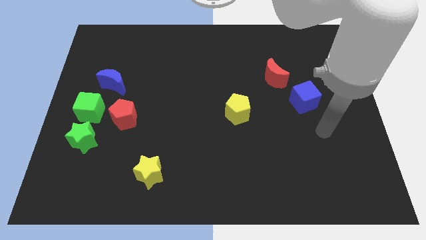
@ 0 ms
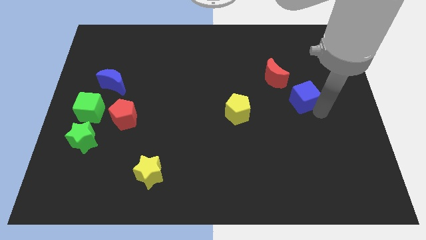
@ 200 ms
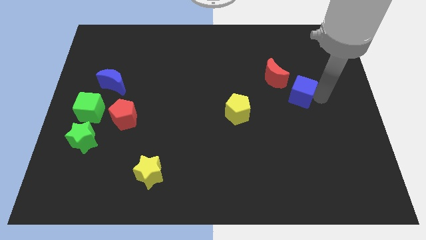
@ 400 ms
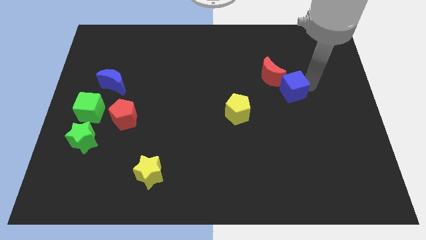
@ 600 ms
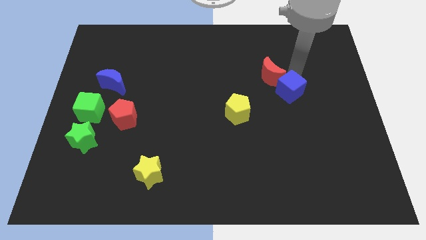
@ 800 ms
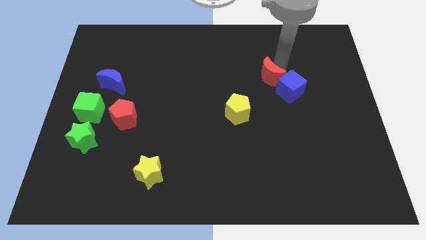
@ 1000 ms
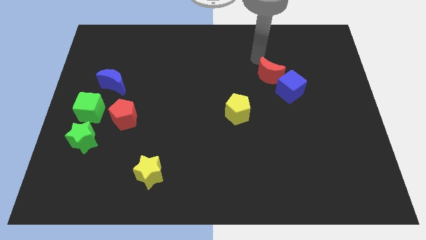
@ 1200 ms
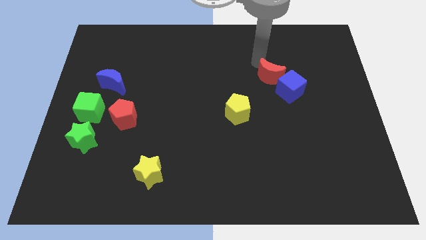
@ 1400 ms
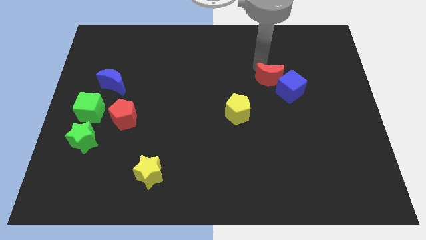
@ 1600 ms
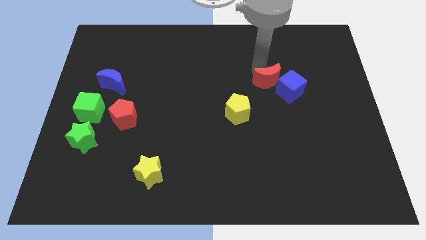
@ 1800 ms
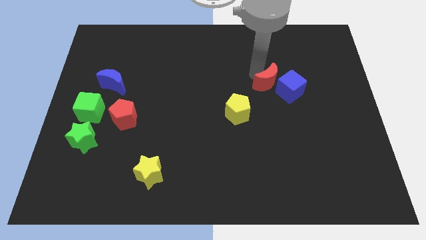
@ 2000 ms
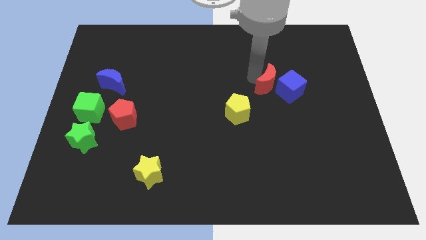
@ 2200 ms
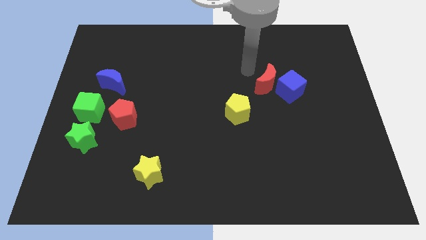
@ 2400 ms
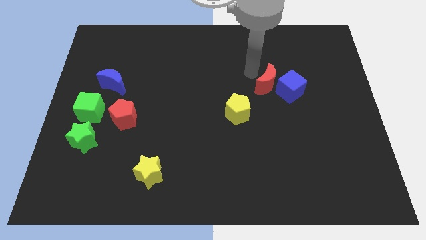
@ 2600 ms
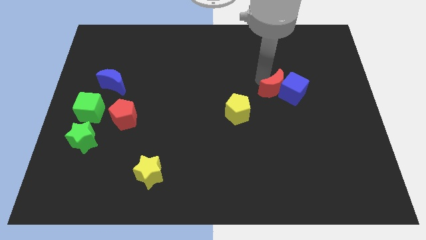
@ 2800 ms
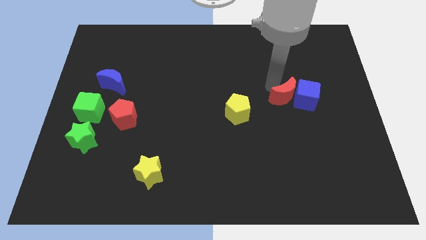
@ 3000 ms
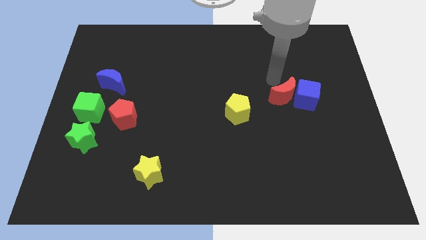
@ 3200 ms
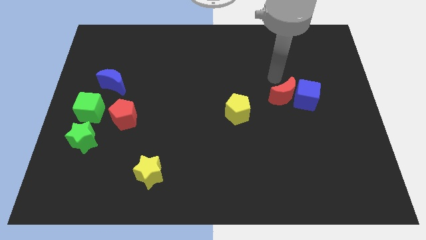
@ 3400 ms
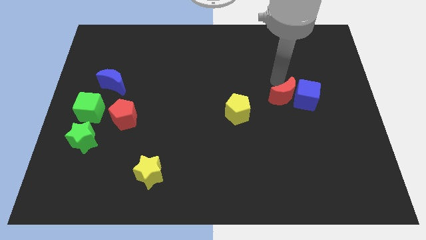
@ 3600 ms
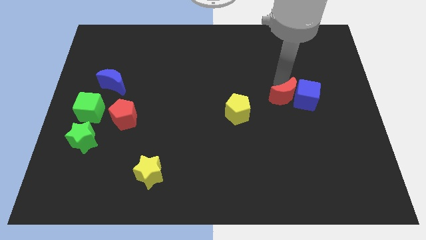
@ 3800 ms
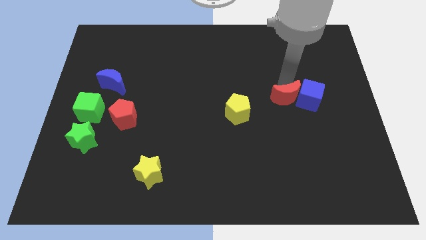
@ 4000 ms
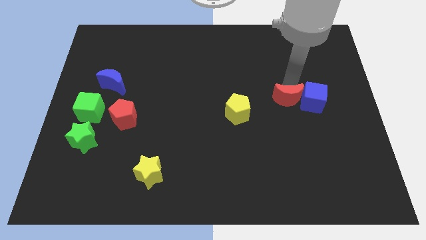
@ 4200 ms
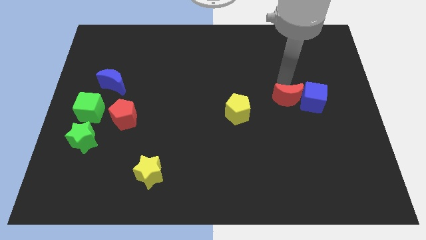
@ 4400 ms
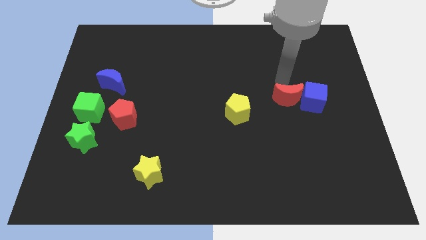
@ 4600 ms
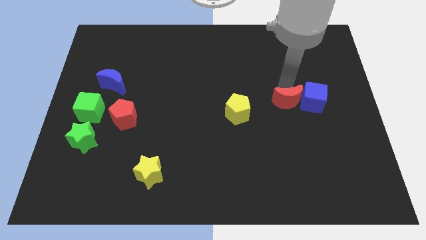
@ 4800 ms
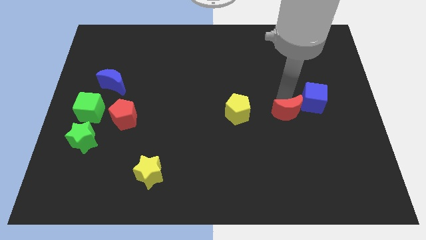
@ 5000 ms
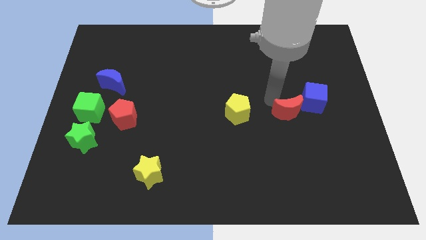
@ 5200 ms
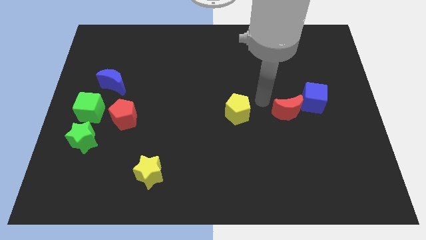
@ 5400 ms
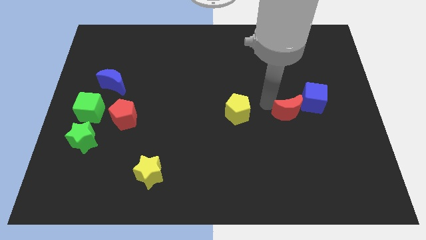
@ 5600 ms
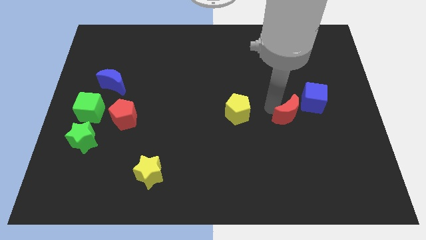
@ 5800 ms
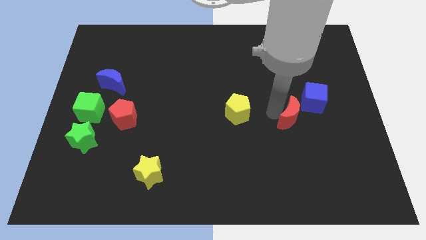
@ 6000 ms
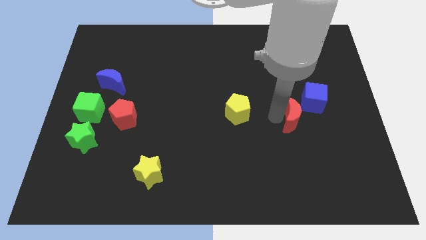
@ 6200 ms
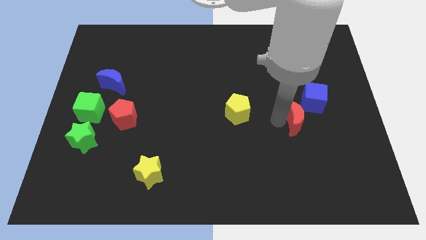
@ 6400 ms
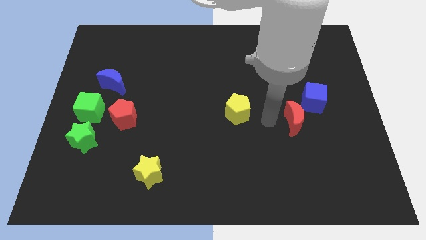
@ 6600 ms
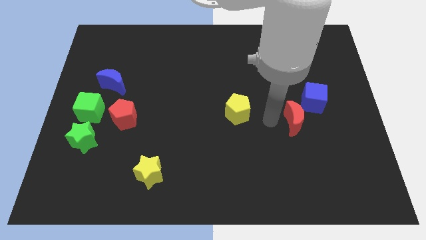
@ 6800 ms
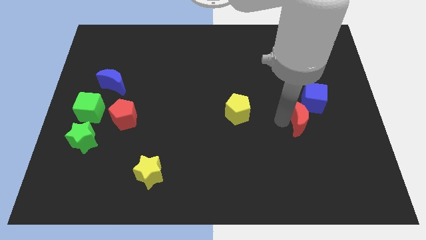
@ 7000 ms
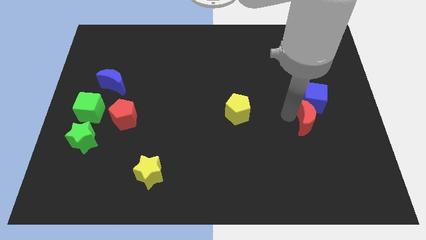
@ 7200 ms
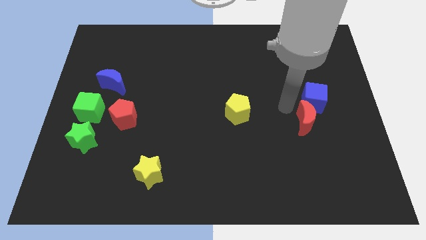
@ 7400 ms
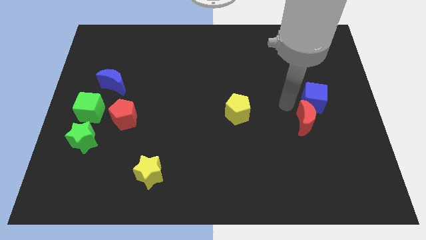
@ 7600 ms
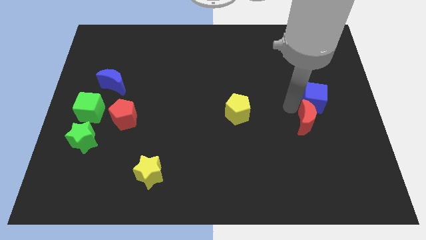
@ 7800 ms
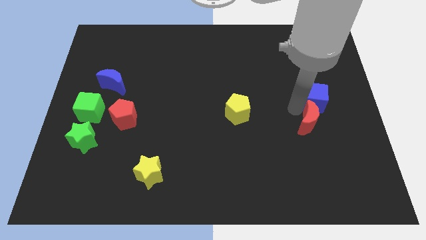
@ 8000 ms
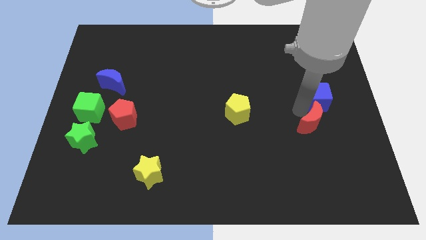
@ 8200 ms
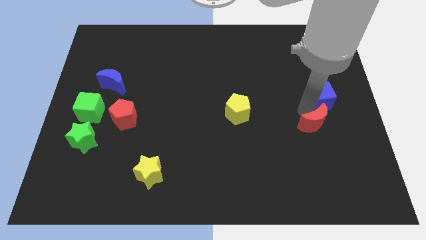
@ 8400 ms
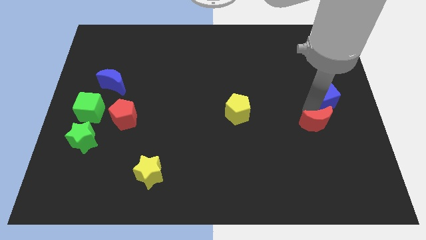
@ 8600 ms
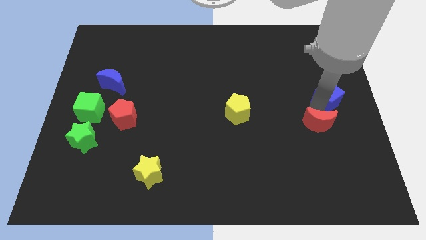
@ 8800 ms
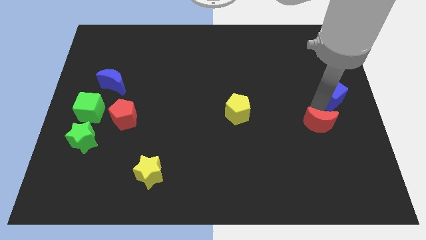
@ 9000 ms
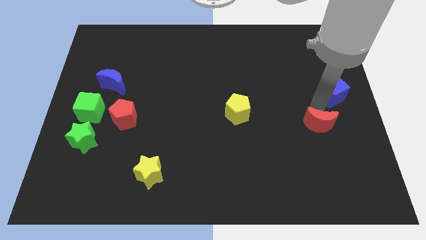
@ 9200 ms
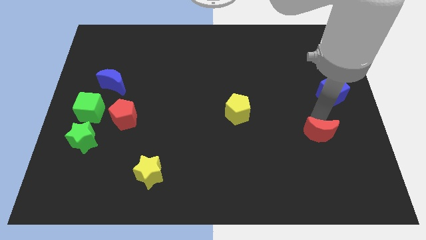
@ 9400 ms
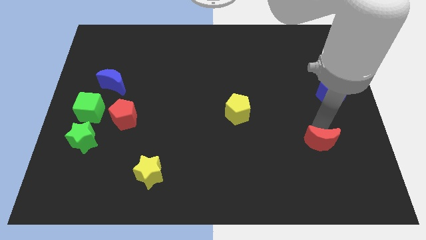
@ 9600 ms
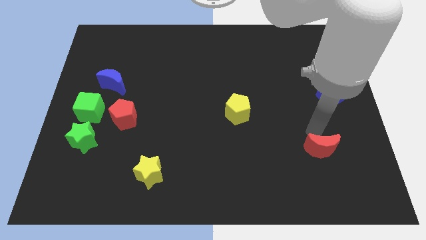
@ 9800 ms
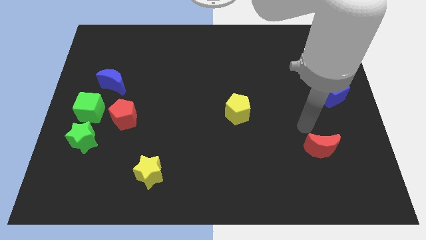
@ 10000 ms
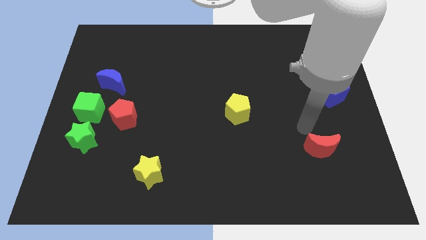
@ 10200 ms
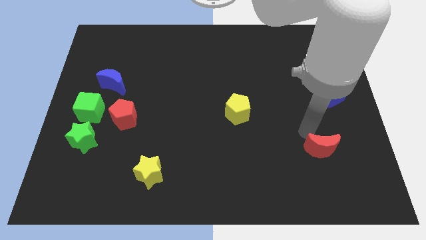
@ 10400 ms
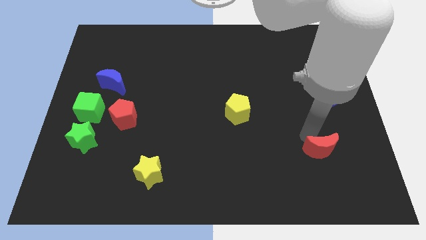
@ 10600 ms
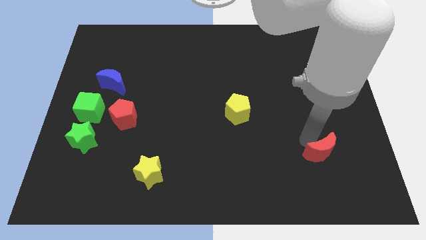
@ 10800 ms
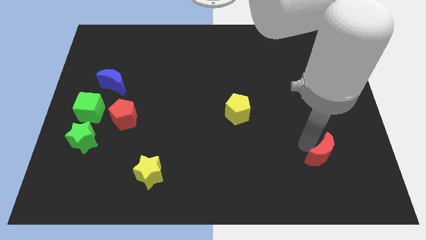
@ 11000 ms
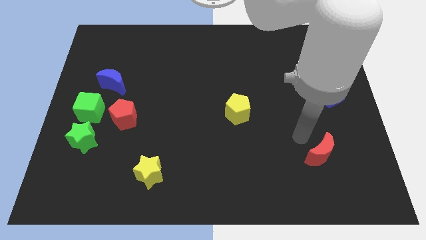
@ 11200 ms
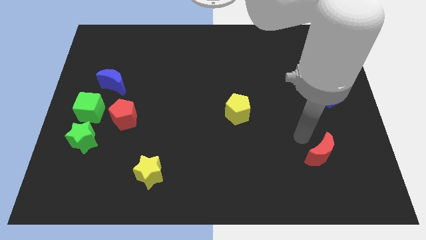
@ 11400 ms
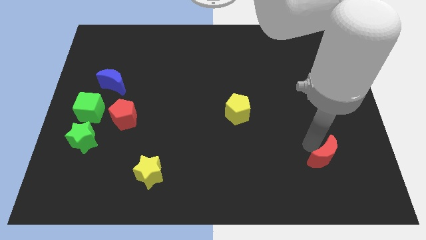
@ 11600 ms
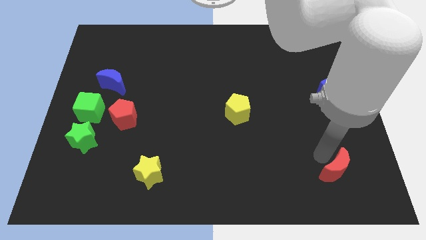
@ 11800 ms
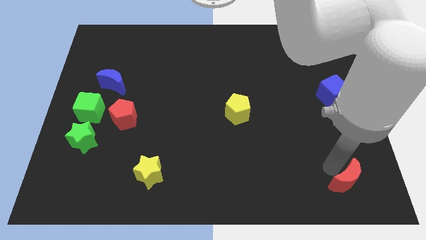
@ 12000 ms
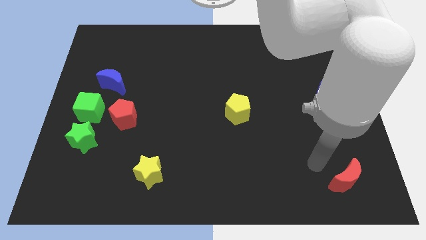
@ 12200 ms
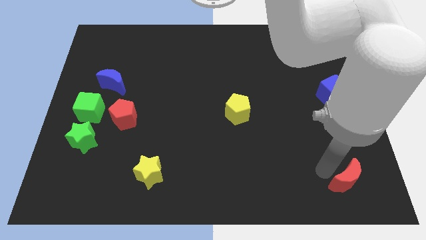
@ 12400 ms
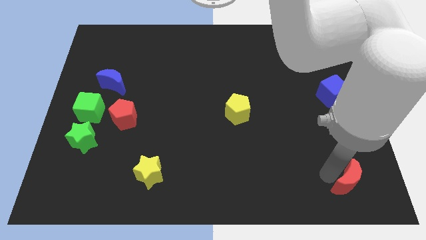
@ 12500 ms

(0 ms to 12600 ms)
move the red moon to the bottom right of the board
